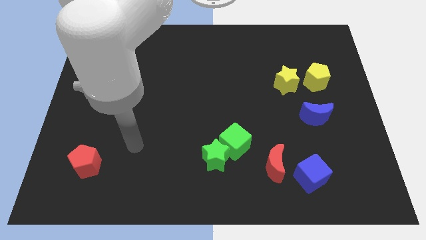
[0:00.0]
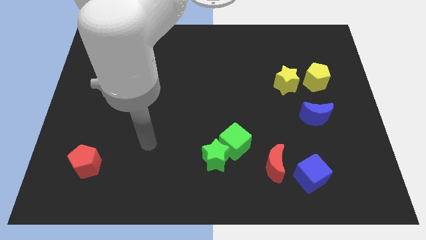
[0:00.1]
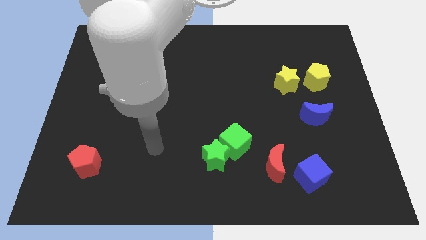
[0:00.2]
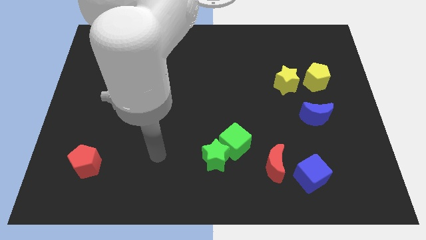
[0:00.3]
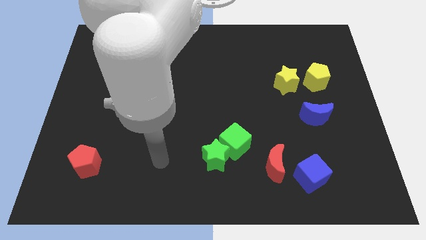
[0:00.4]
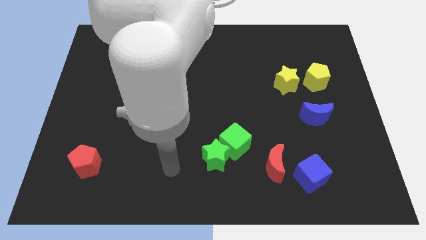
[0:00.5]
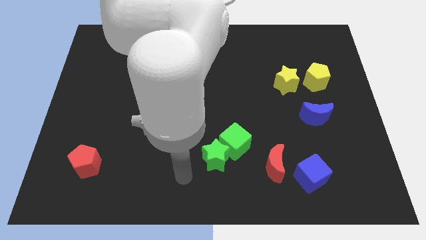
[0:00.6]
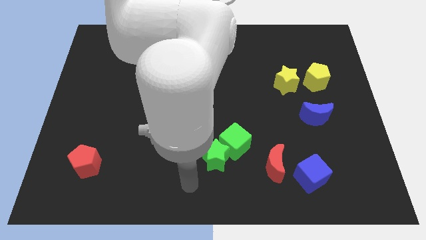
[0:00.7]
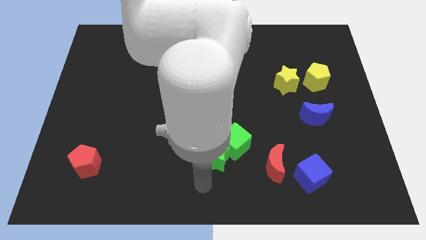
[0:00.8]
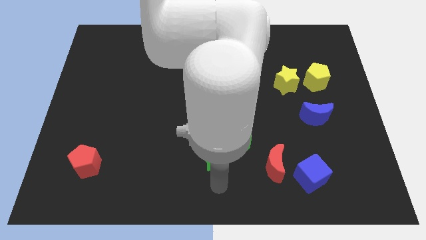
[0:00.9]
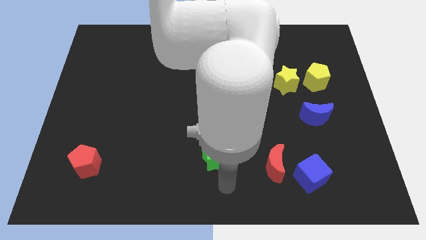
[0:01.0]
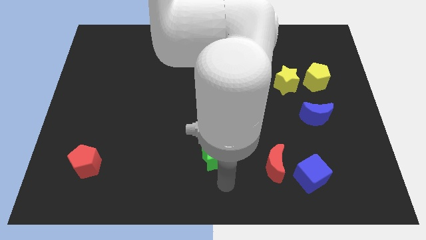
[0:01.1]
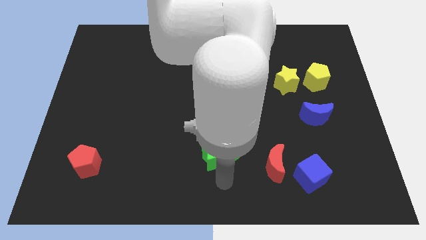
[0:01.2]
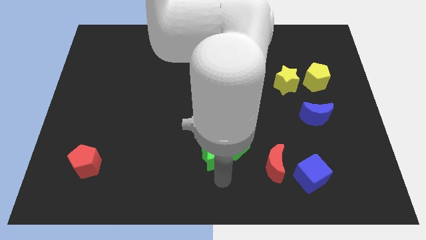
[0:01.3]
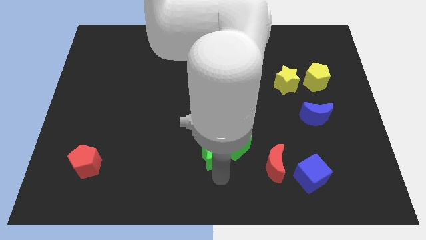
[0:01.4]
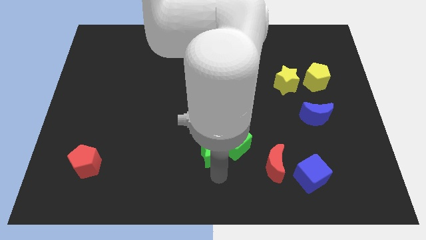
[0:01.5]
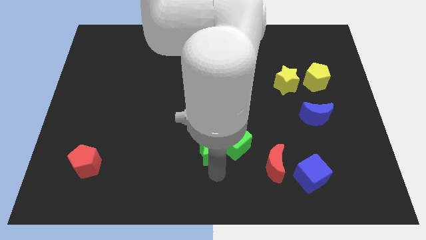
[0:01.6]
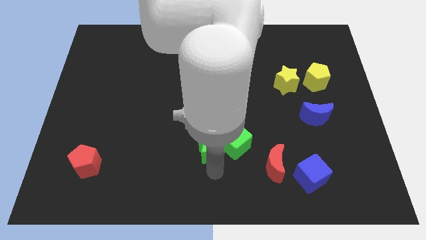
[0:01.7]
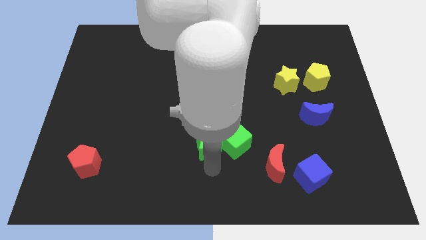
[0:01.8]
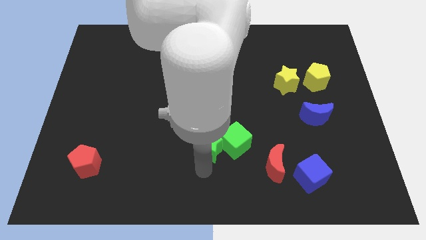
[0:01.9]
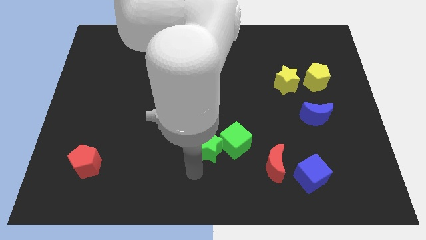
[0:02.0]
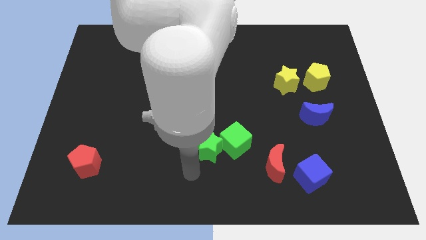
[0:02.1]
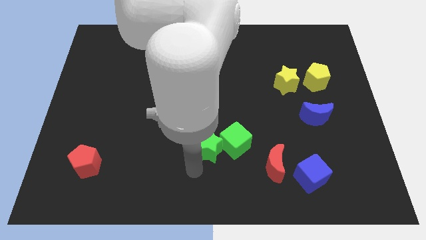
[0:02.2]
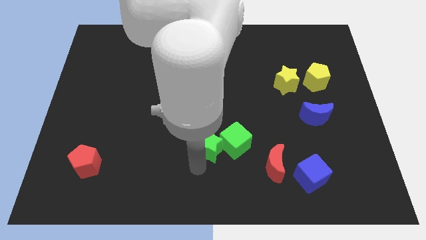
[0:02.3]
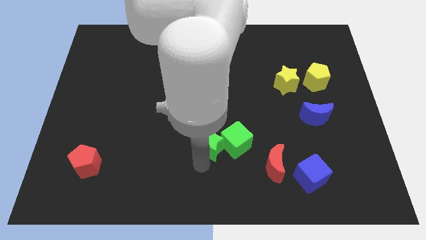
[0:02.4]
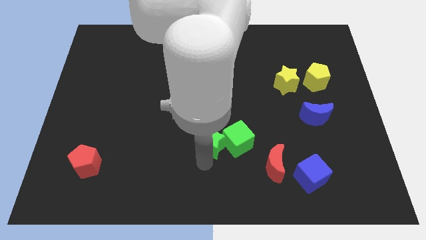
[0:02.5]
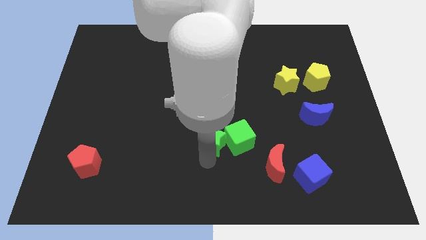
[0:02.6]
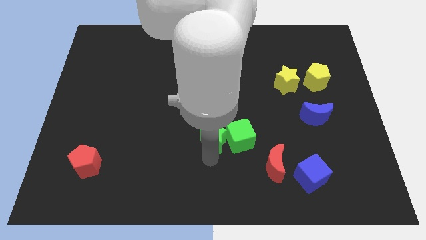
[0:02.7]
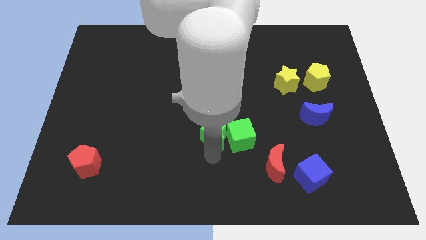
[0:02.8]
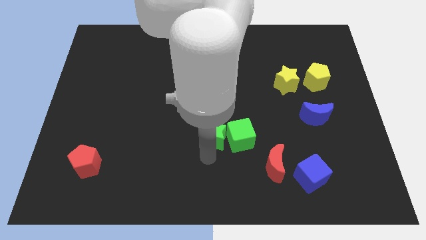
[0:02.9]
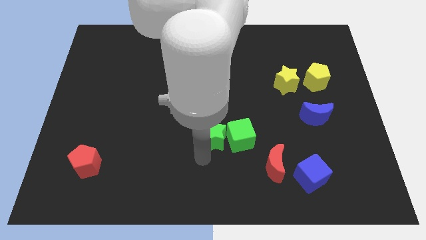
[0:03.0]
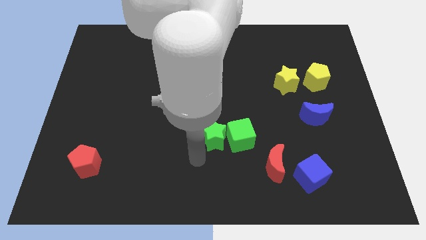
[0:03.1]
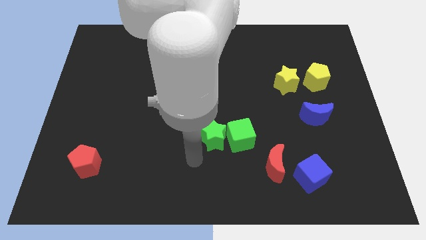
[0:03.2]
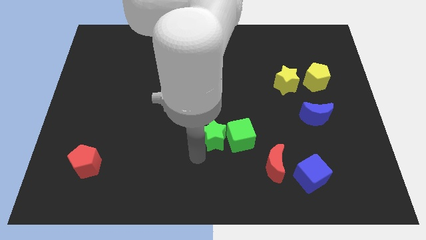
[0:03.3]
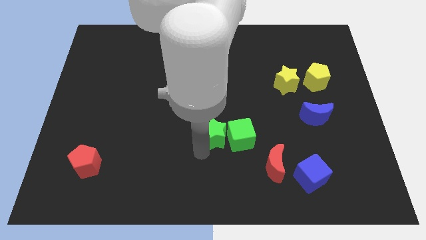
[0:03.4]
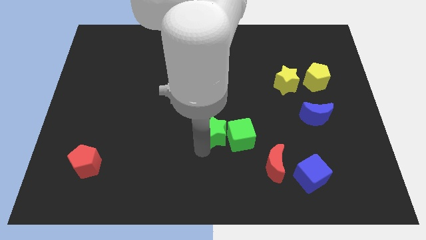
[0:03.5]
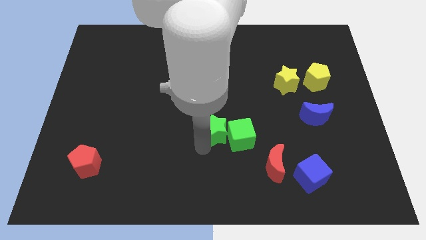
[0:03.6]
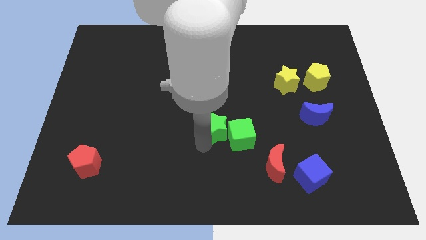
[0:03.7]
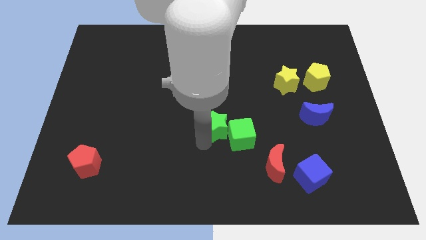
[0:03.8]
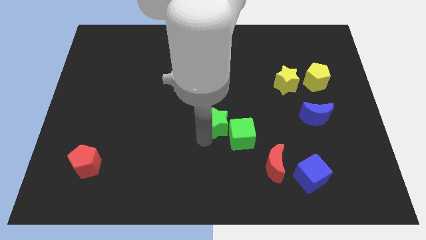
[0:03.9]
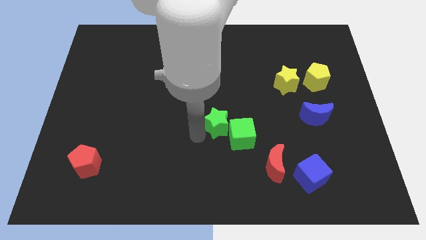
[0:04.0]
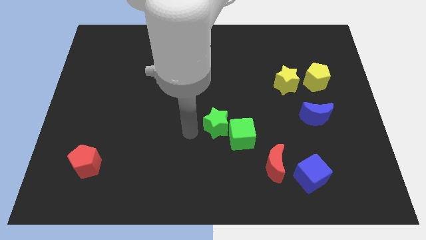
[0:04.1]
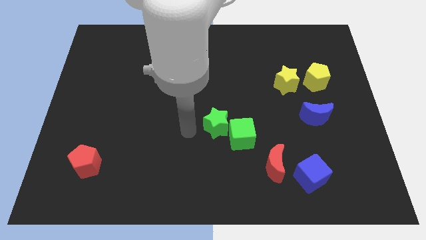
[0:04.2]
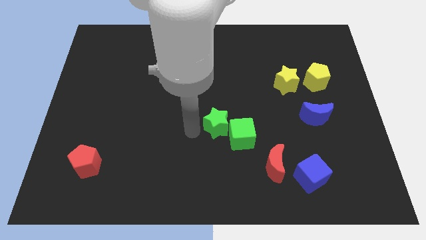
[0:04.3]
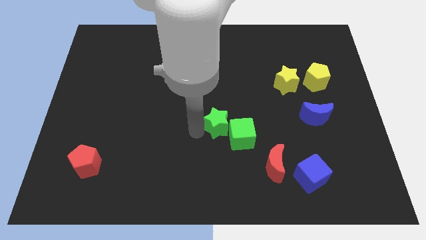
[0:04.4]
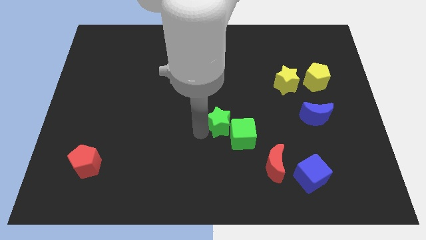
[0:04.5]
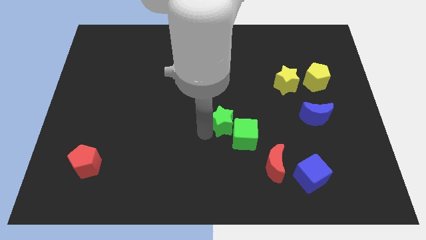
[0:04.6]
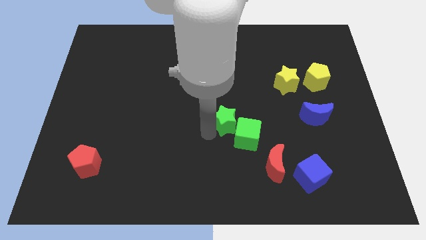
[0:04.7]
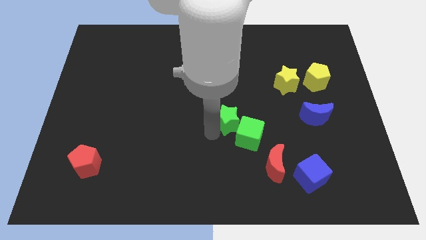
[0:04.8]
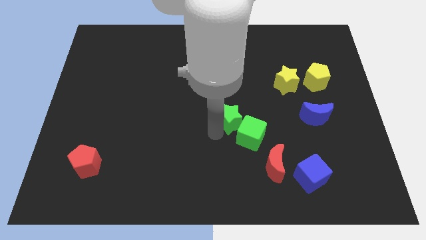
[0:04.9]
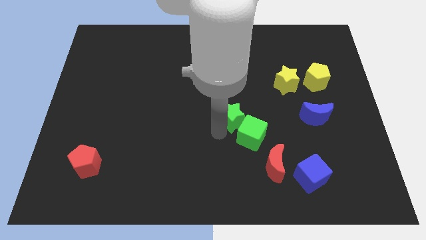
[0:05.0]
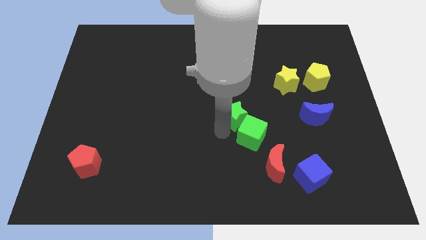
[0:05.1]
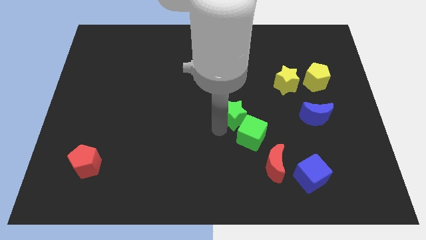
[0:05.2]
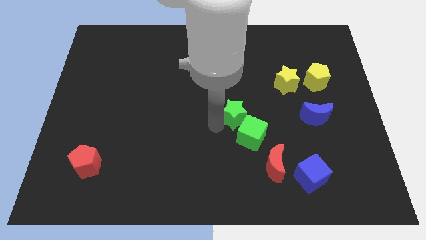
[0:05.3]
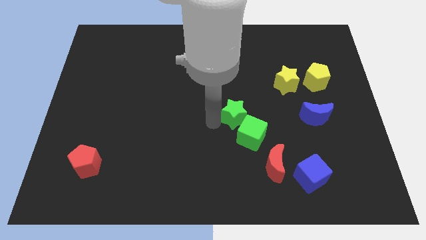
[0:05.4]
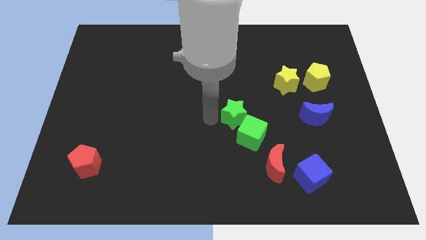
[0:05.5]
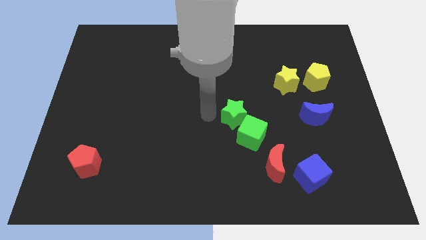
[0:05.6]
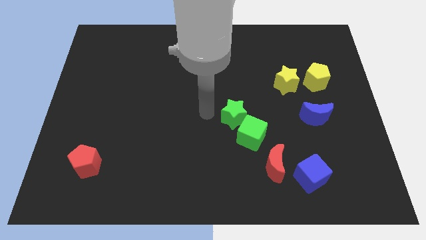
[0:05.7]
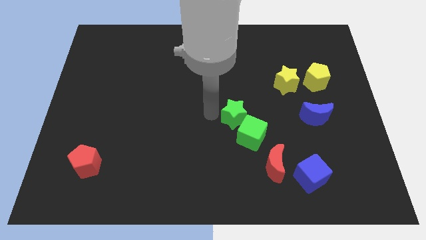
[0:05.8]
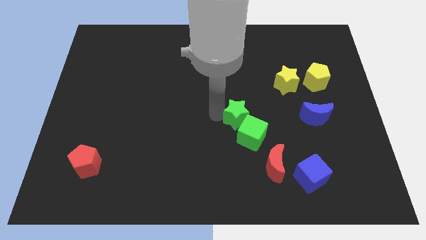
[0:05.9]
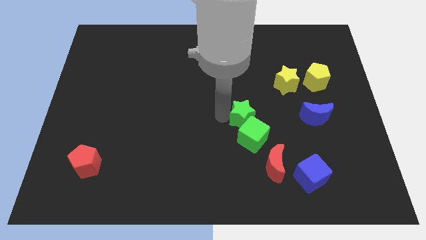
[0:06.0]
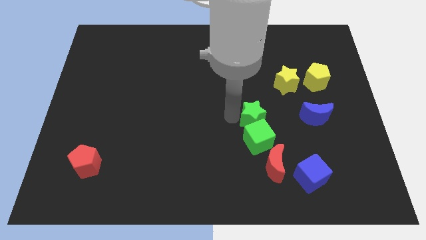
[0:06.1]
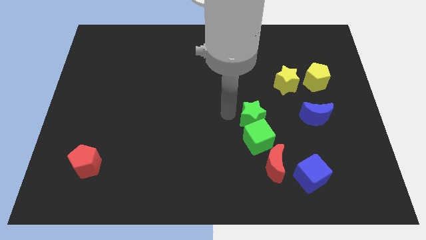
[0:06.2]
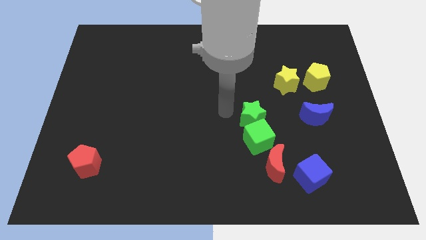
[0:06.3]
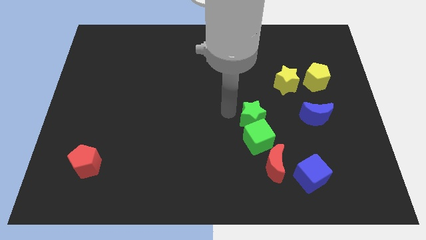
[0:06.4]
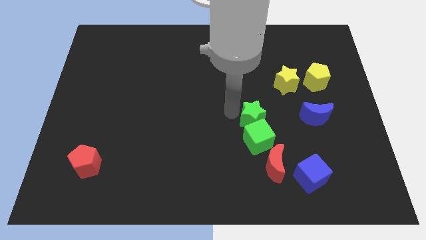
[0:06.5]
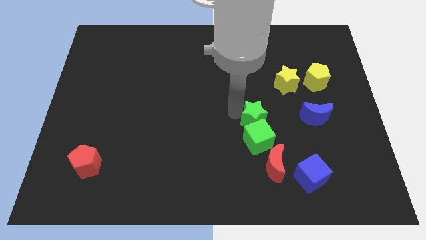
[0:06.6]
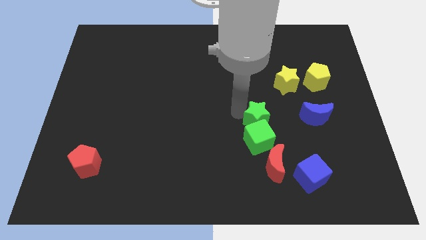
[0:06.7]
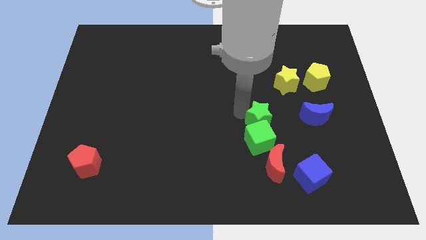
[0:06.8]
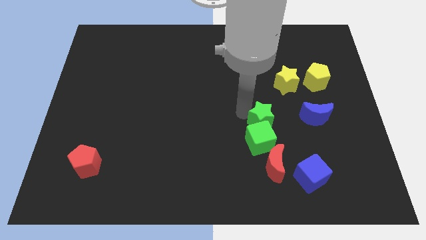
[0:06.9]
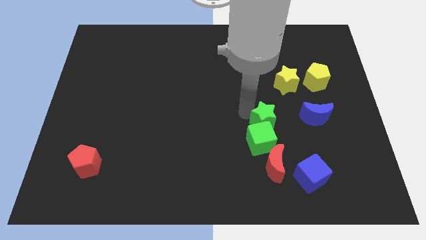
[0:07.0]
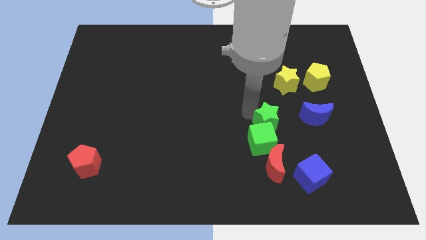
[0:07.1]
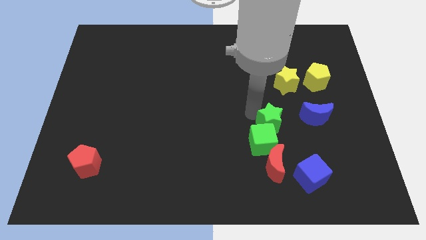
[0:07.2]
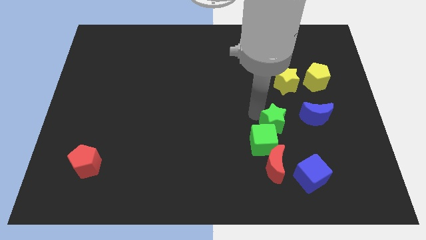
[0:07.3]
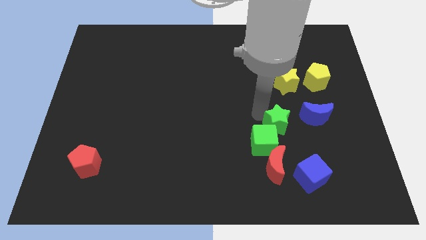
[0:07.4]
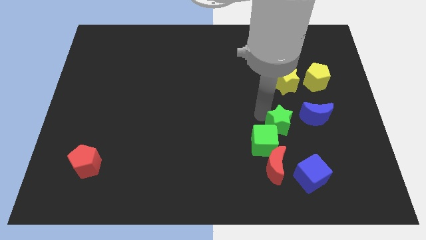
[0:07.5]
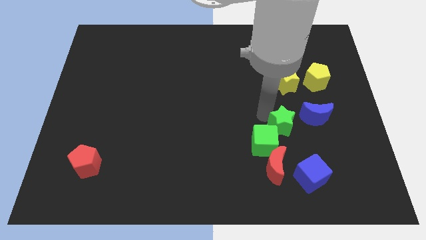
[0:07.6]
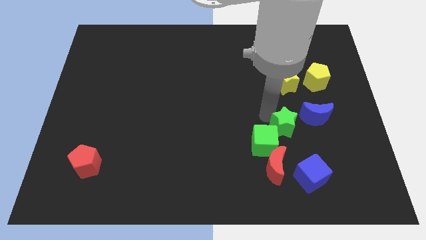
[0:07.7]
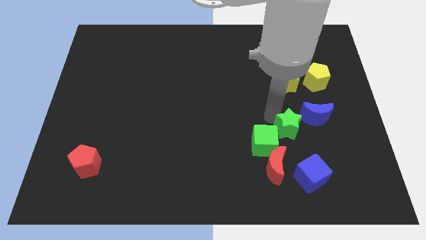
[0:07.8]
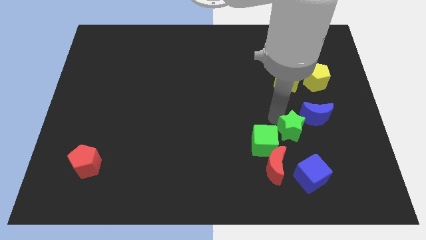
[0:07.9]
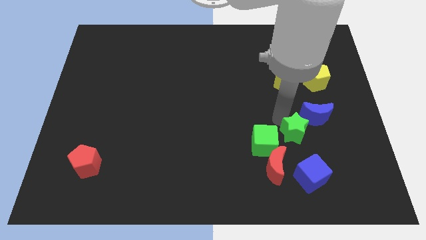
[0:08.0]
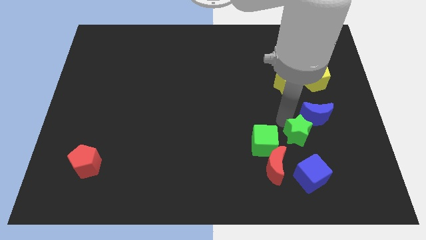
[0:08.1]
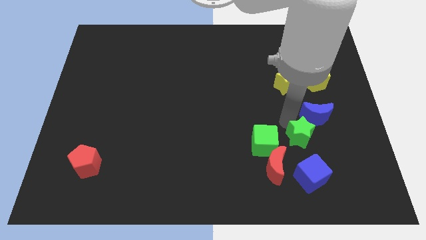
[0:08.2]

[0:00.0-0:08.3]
slide the green star to the bottom side of the blue moon
